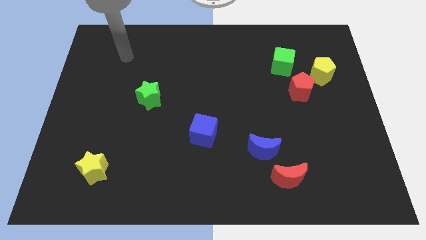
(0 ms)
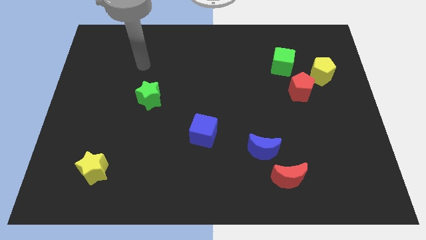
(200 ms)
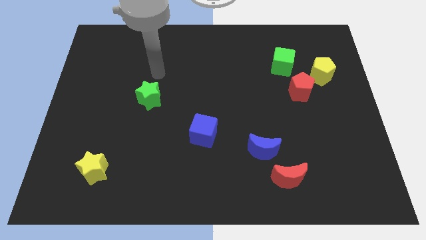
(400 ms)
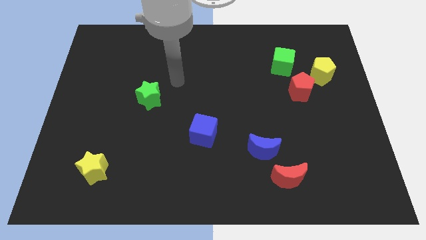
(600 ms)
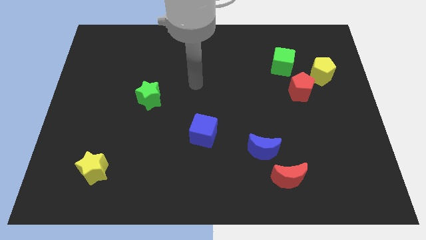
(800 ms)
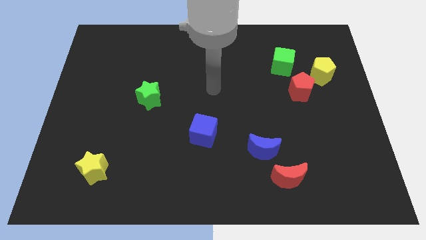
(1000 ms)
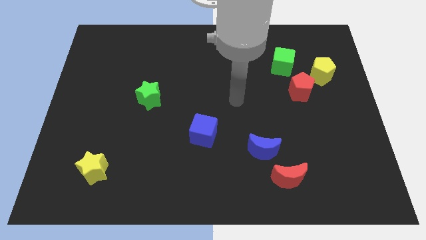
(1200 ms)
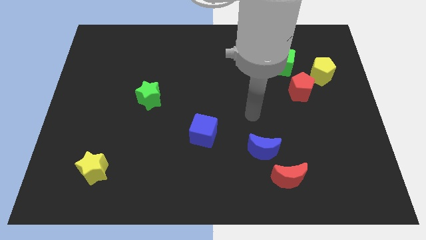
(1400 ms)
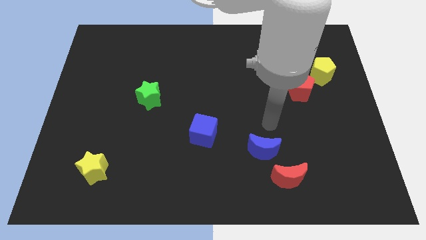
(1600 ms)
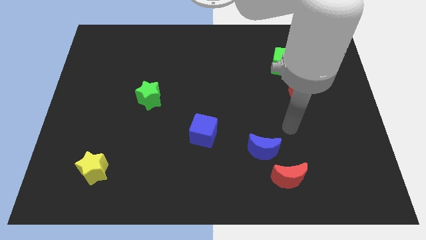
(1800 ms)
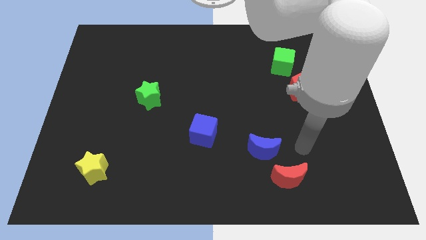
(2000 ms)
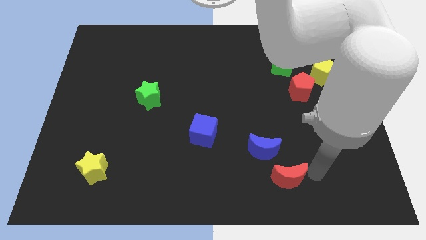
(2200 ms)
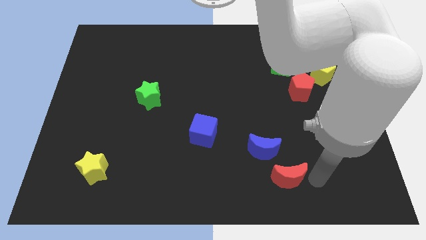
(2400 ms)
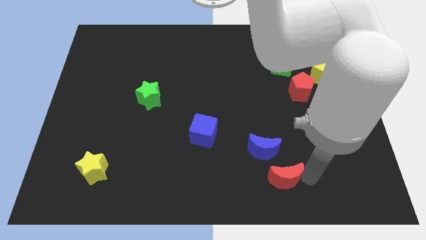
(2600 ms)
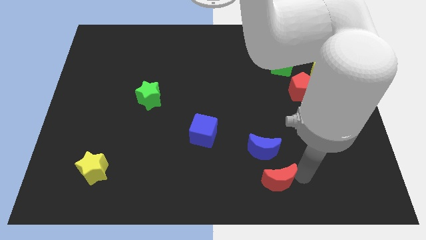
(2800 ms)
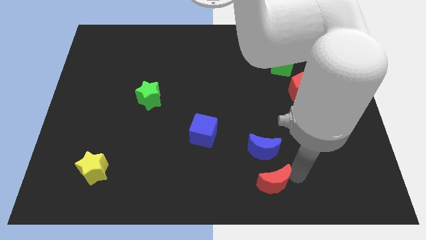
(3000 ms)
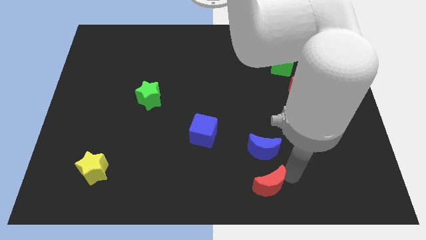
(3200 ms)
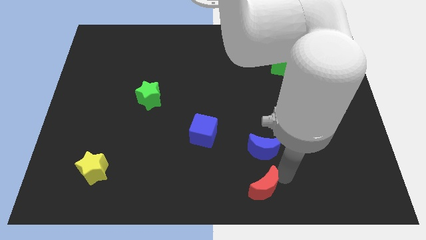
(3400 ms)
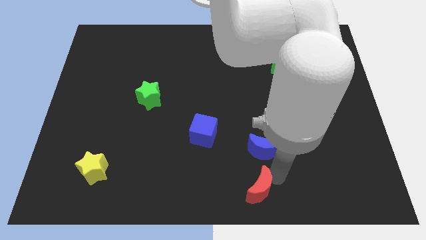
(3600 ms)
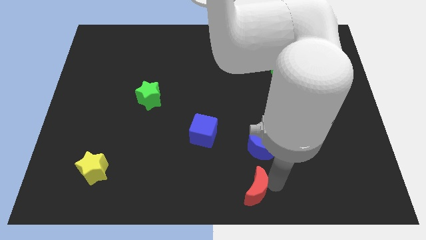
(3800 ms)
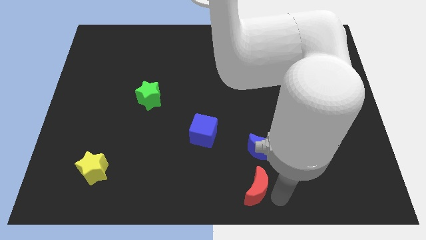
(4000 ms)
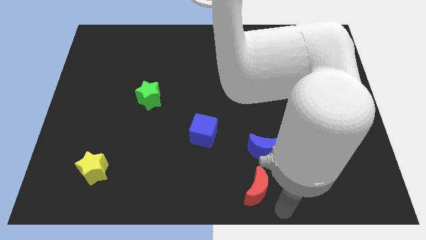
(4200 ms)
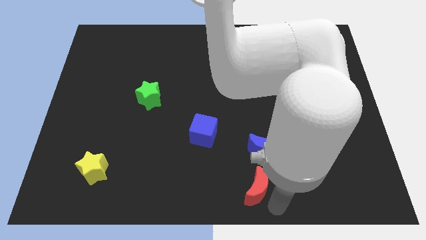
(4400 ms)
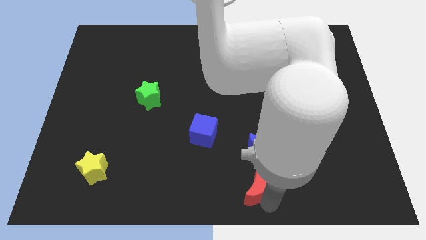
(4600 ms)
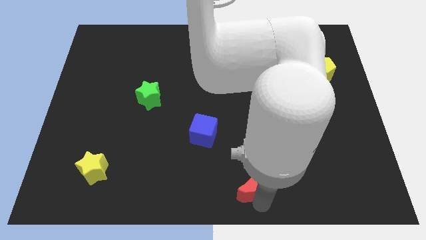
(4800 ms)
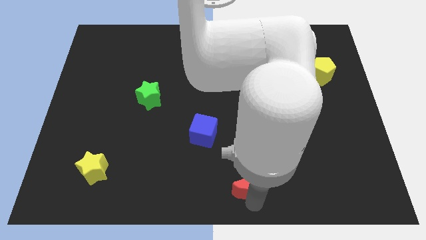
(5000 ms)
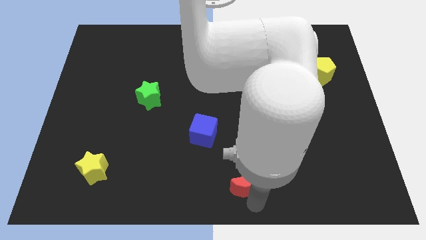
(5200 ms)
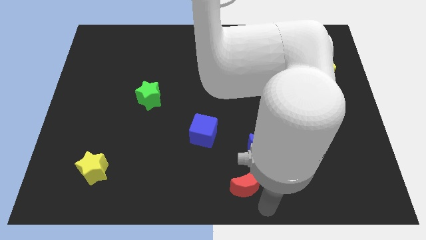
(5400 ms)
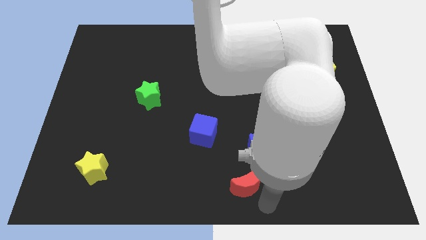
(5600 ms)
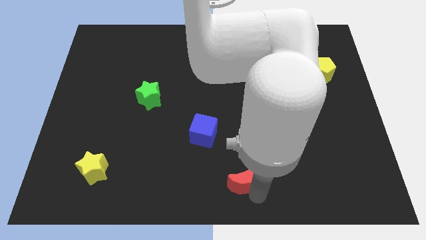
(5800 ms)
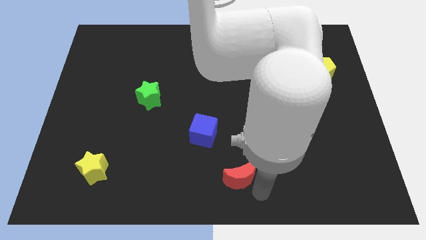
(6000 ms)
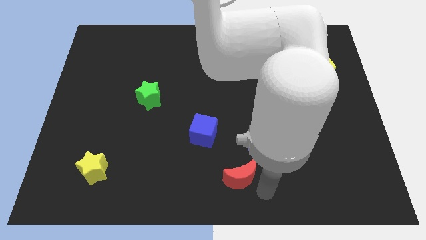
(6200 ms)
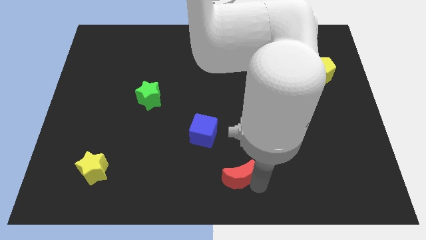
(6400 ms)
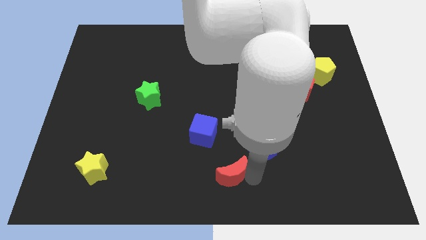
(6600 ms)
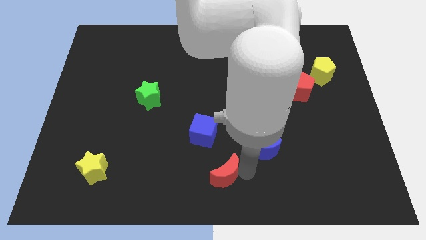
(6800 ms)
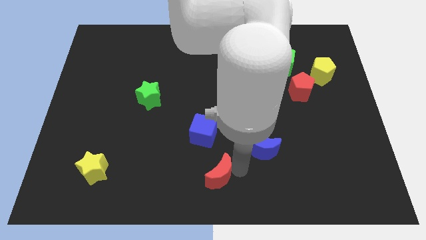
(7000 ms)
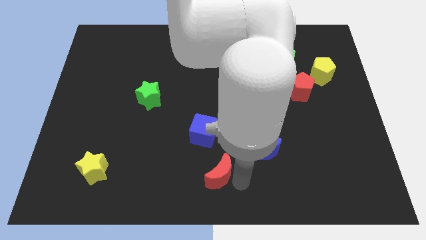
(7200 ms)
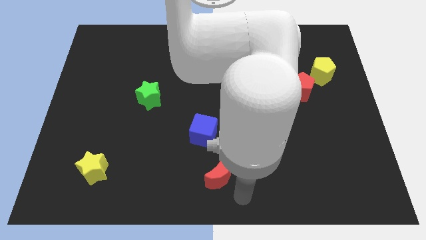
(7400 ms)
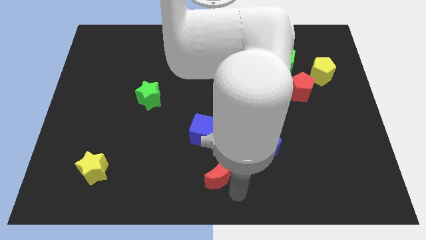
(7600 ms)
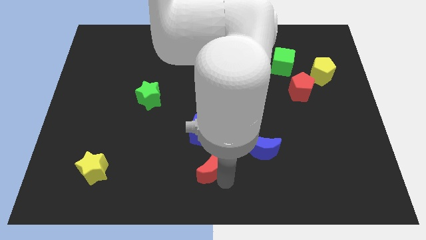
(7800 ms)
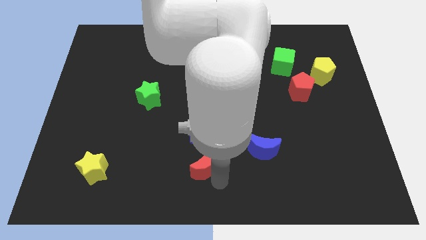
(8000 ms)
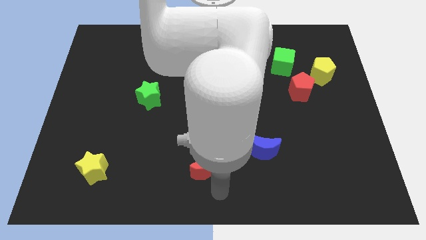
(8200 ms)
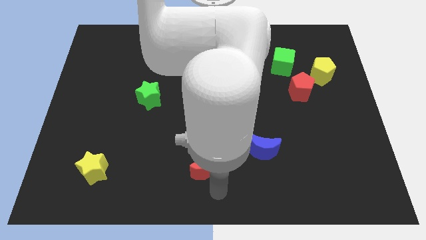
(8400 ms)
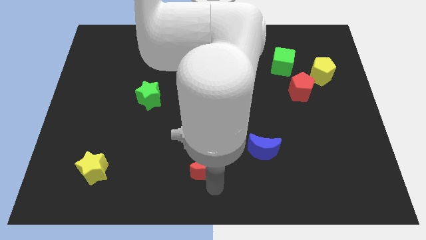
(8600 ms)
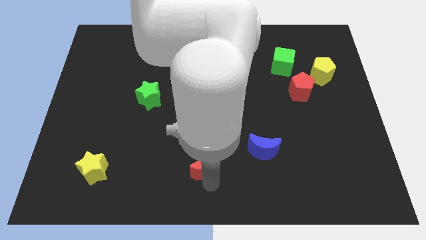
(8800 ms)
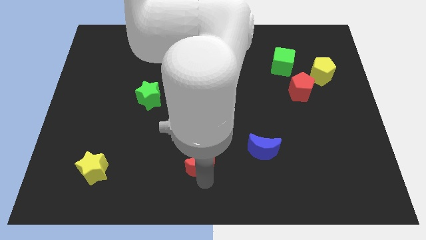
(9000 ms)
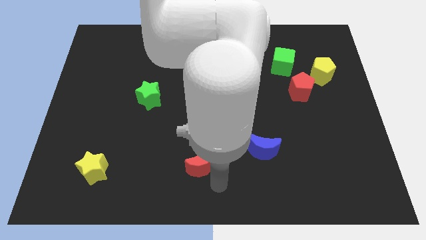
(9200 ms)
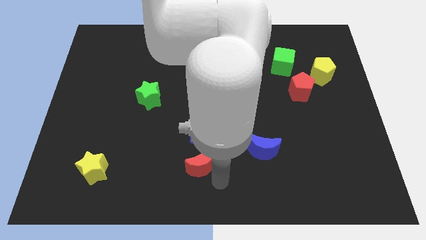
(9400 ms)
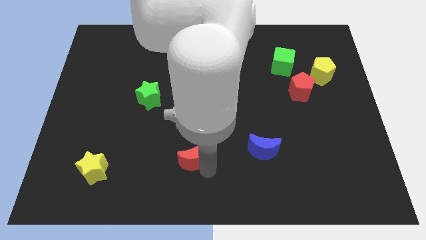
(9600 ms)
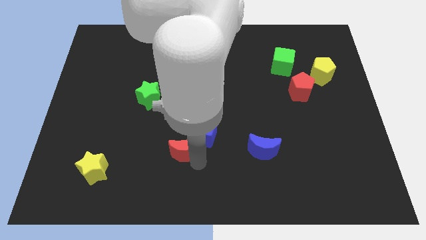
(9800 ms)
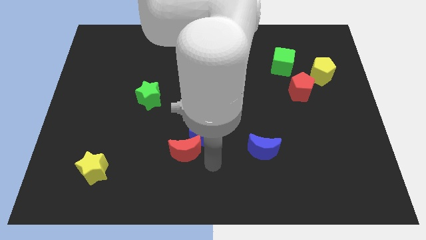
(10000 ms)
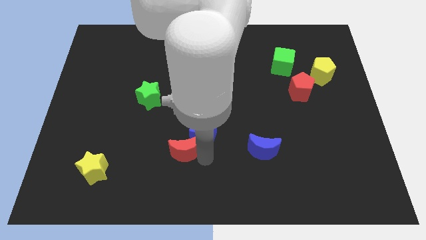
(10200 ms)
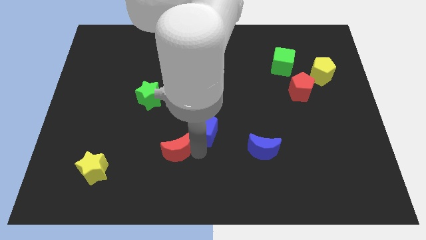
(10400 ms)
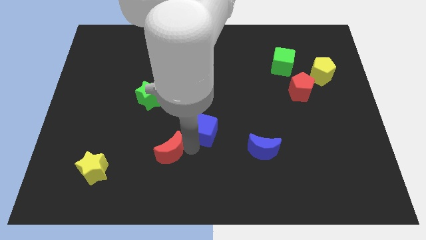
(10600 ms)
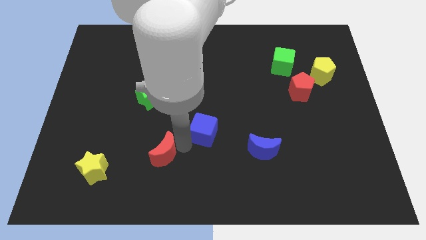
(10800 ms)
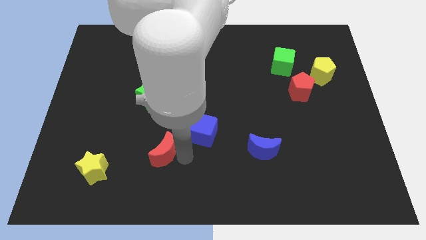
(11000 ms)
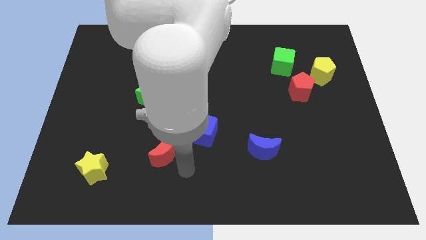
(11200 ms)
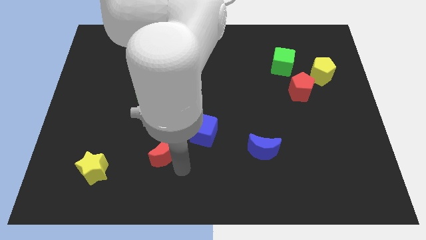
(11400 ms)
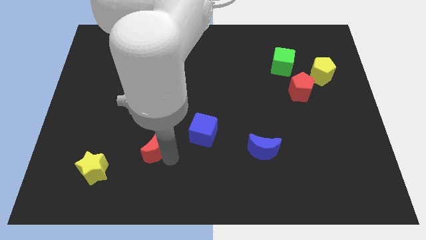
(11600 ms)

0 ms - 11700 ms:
put the red moon below the green star
